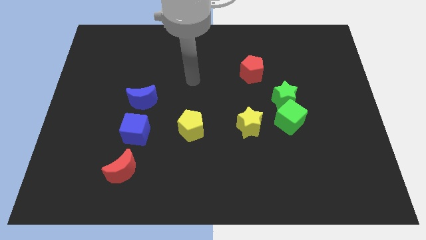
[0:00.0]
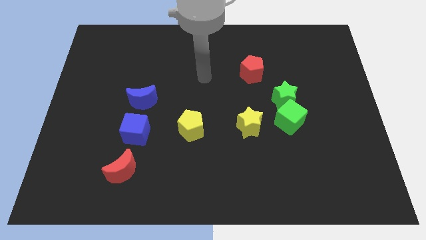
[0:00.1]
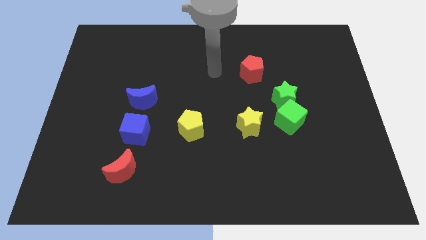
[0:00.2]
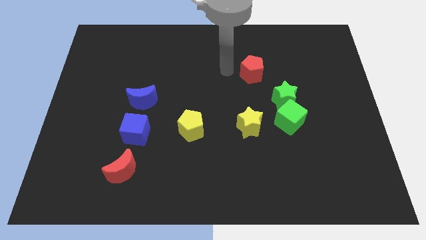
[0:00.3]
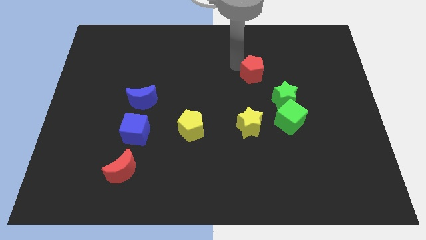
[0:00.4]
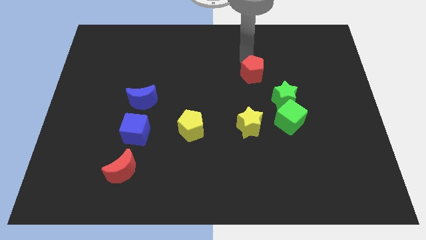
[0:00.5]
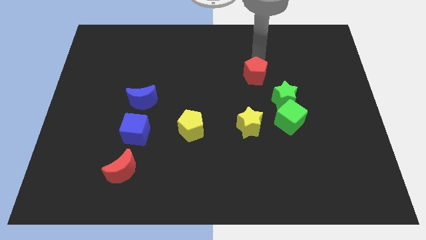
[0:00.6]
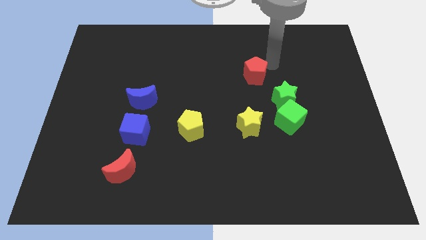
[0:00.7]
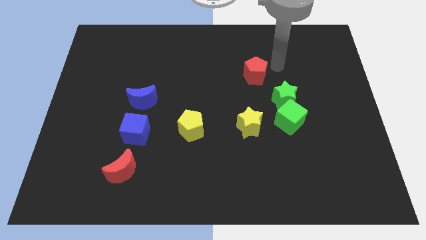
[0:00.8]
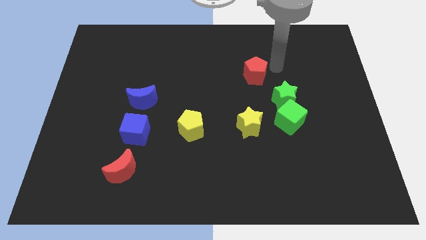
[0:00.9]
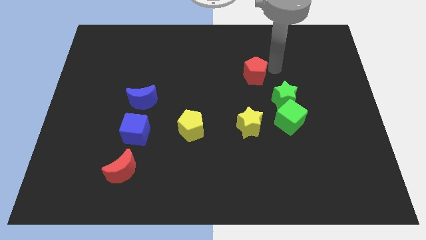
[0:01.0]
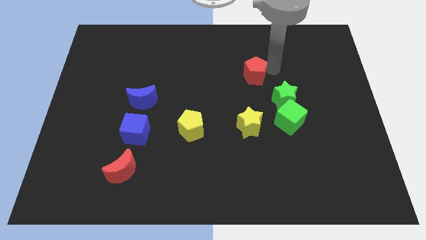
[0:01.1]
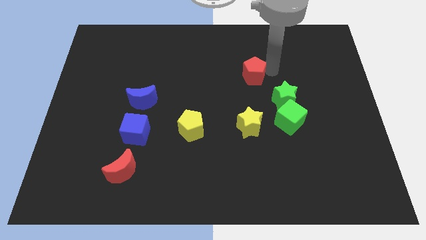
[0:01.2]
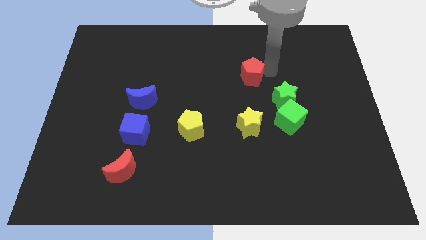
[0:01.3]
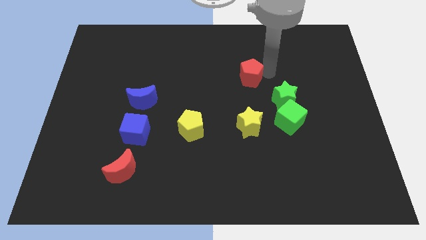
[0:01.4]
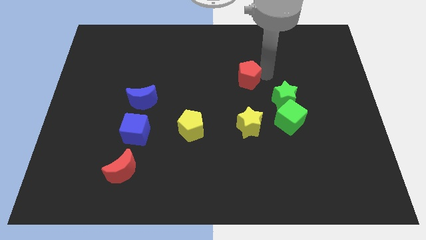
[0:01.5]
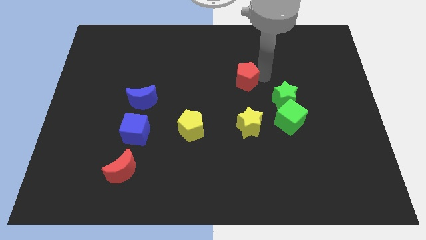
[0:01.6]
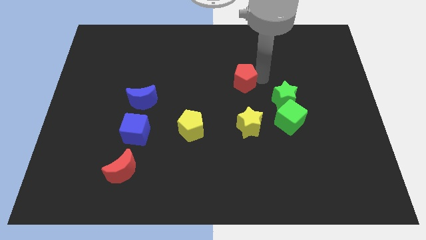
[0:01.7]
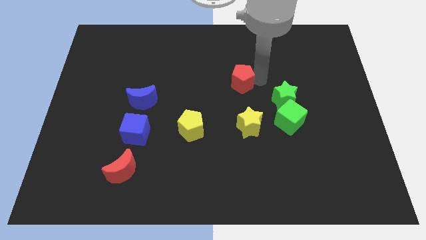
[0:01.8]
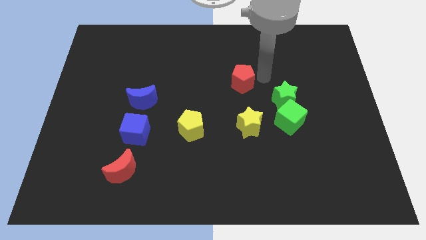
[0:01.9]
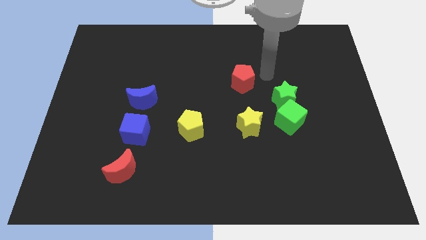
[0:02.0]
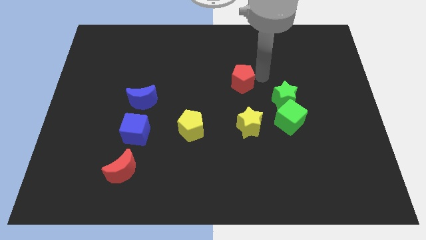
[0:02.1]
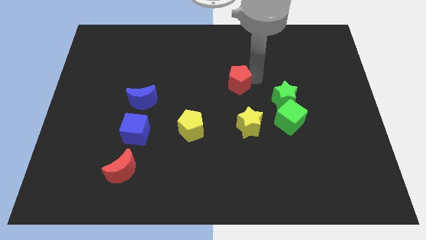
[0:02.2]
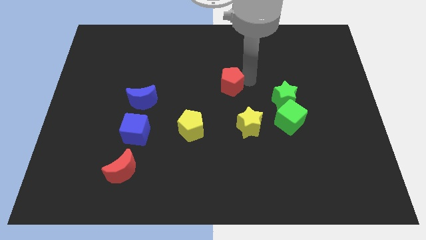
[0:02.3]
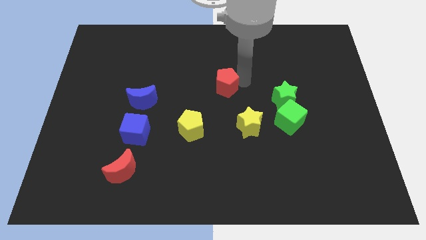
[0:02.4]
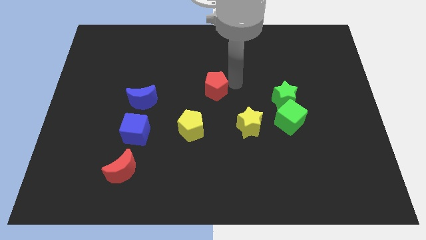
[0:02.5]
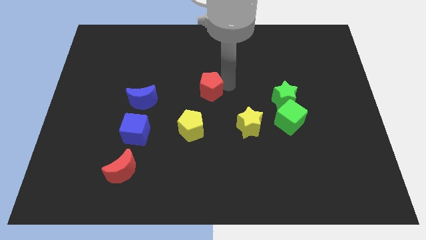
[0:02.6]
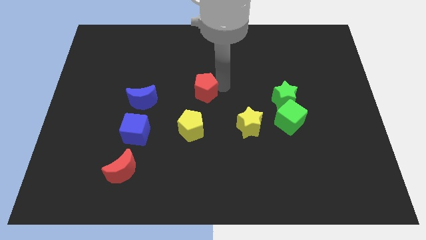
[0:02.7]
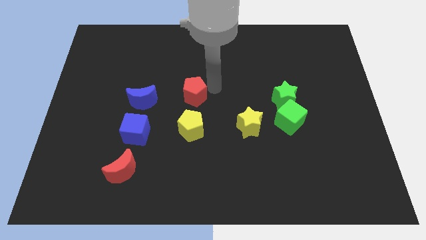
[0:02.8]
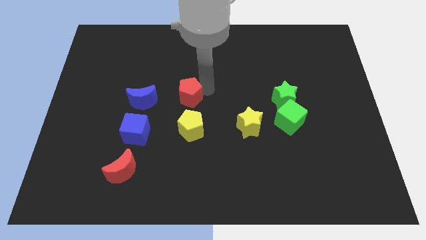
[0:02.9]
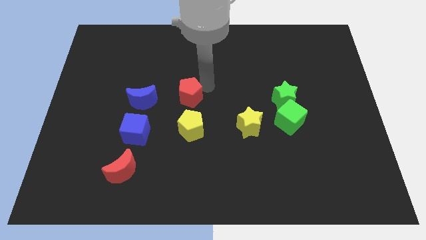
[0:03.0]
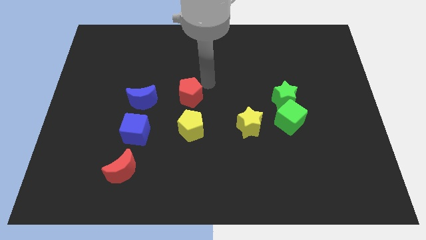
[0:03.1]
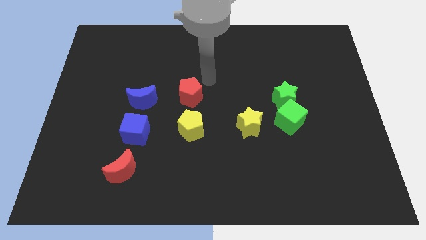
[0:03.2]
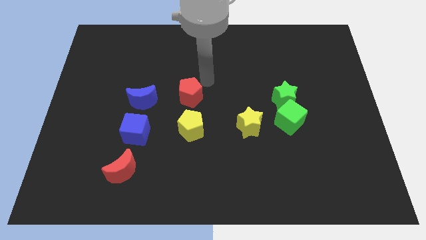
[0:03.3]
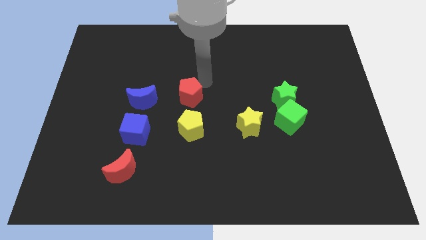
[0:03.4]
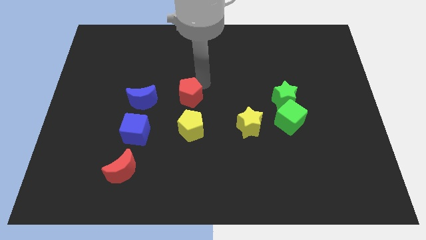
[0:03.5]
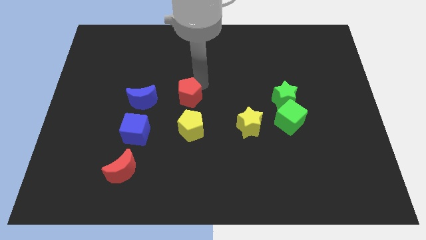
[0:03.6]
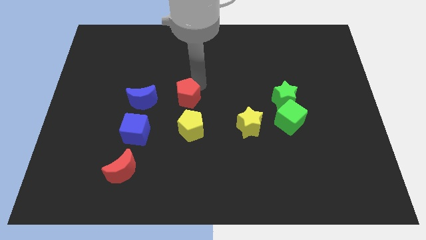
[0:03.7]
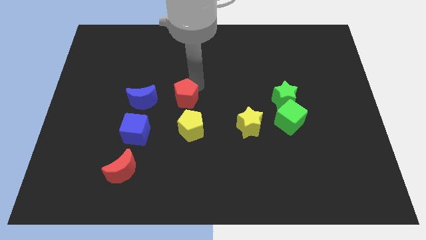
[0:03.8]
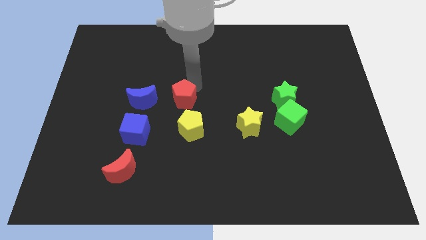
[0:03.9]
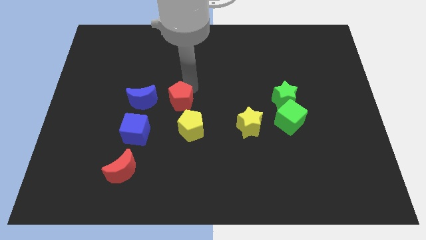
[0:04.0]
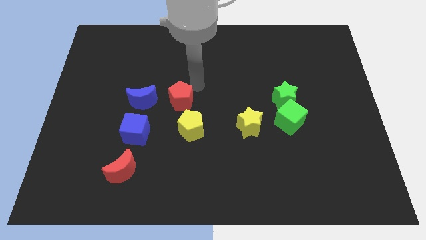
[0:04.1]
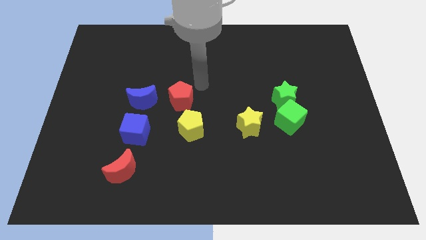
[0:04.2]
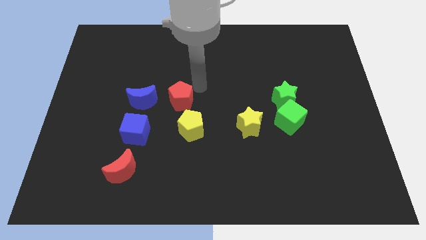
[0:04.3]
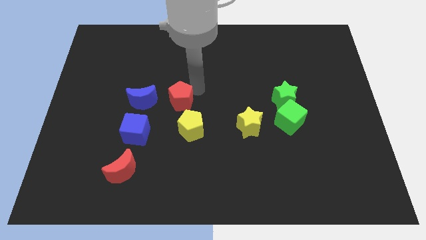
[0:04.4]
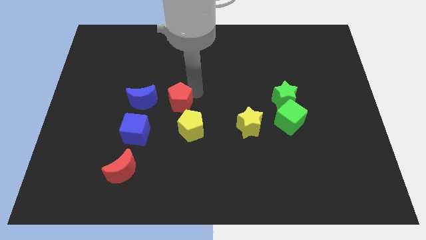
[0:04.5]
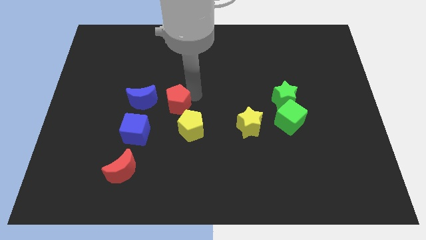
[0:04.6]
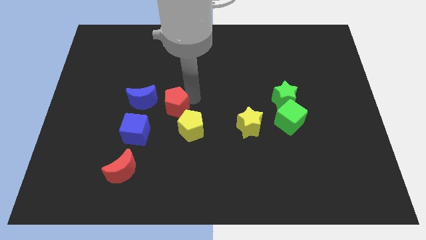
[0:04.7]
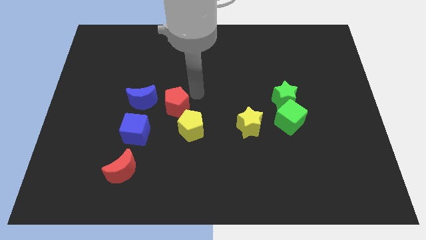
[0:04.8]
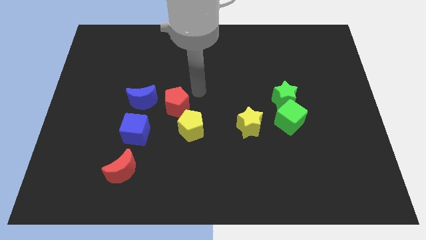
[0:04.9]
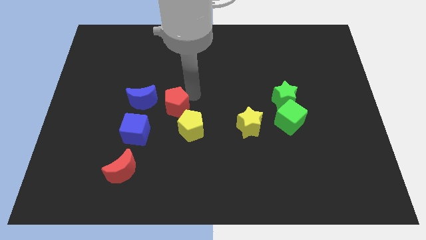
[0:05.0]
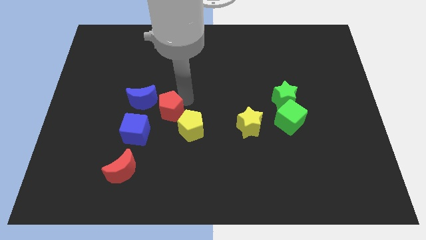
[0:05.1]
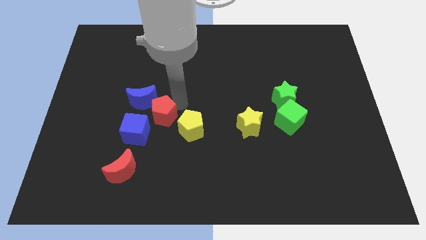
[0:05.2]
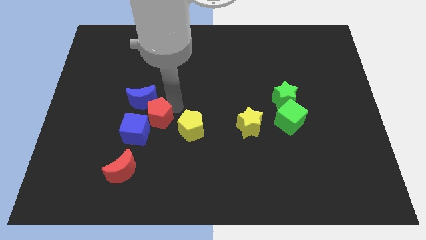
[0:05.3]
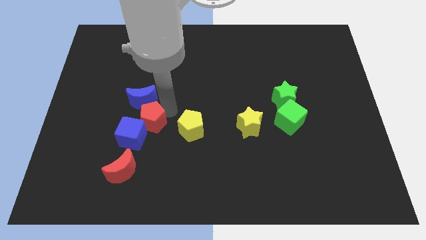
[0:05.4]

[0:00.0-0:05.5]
slide the red pentagon next to the blue cube

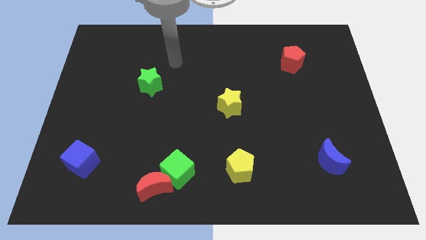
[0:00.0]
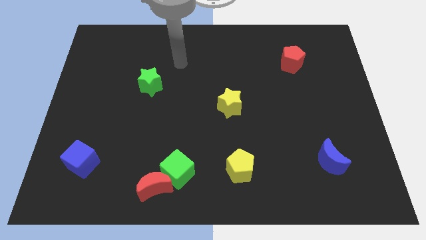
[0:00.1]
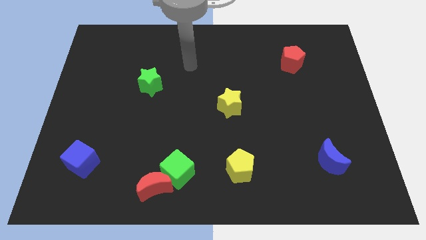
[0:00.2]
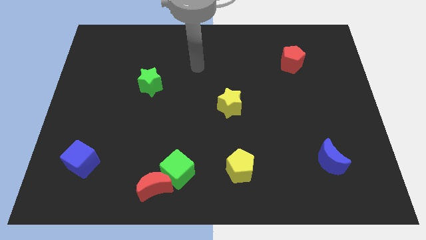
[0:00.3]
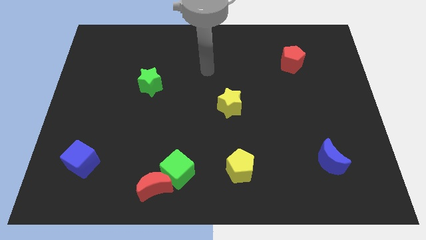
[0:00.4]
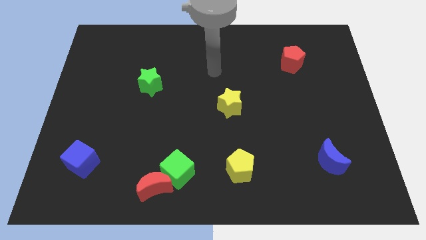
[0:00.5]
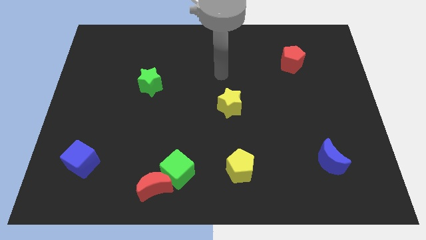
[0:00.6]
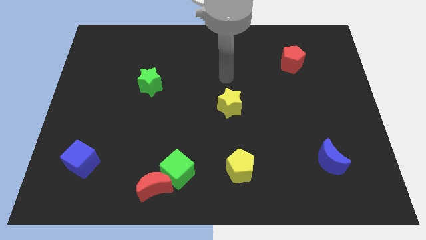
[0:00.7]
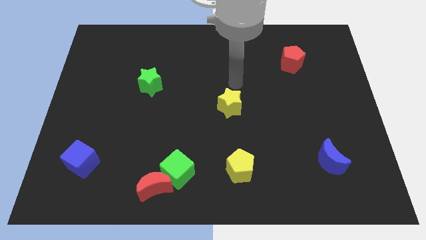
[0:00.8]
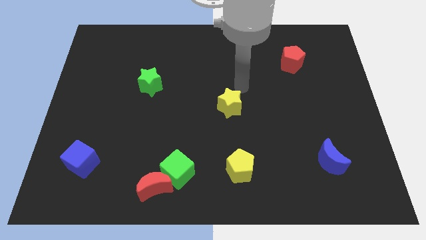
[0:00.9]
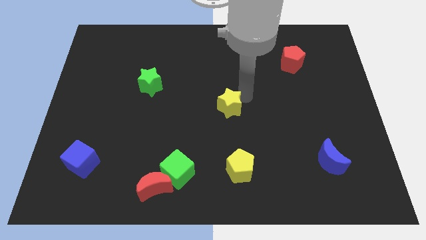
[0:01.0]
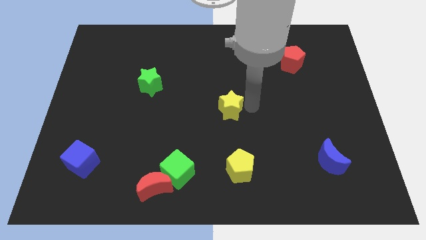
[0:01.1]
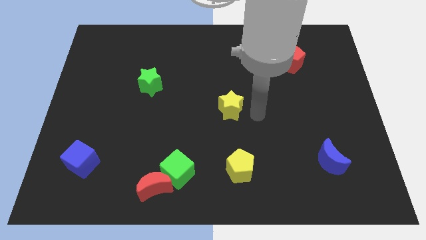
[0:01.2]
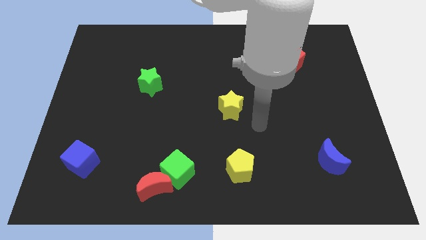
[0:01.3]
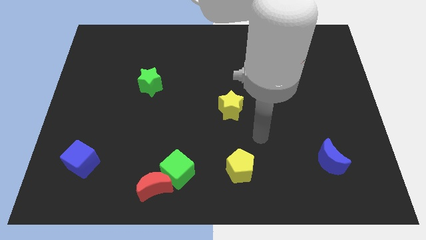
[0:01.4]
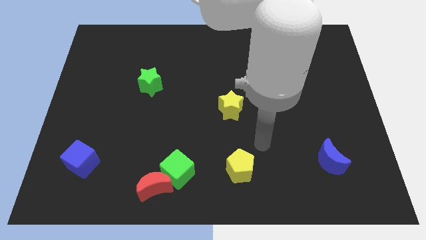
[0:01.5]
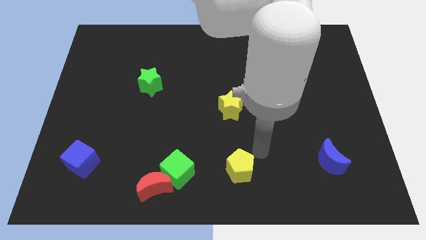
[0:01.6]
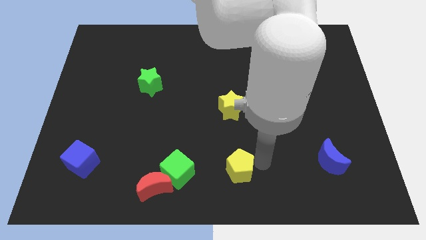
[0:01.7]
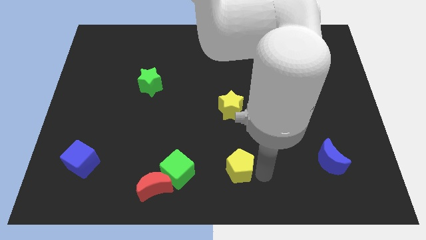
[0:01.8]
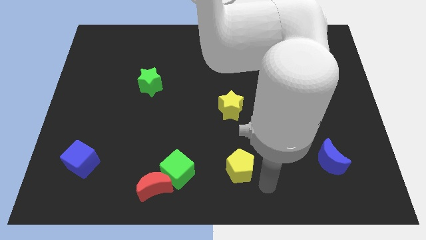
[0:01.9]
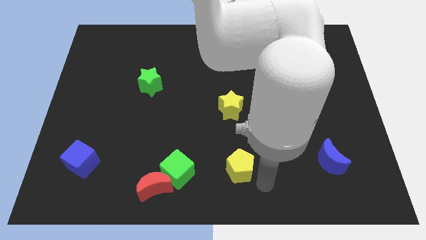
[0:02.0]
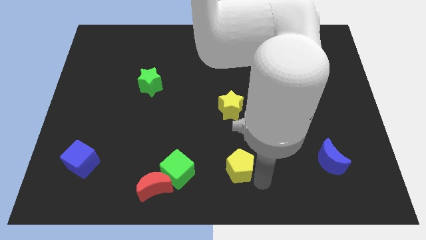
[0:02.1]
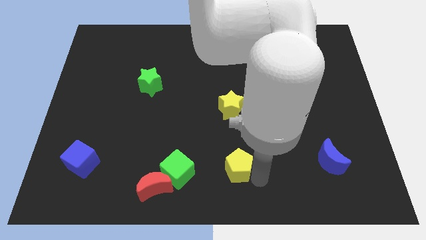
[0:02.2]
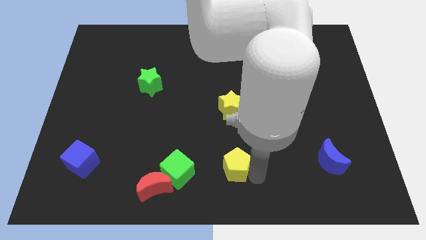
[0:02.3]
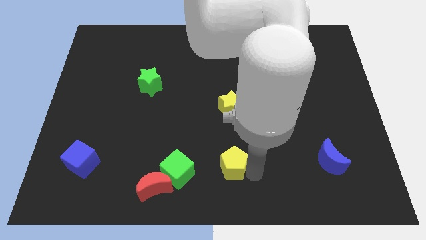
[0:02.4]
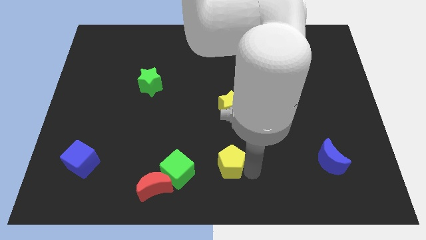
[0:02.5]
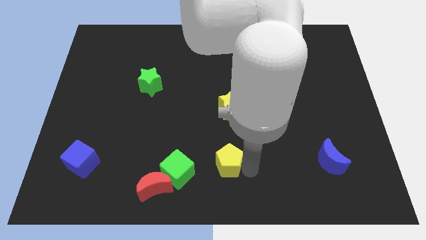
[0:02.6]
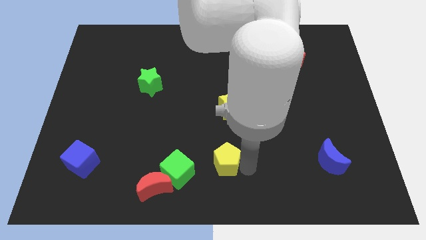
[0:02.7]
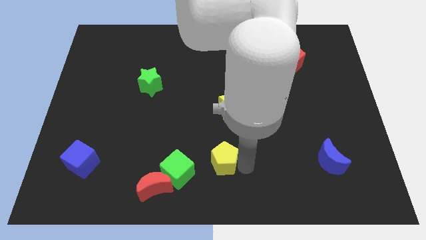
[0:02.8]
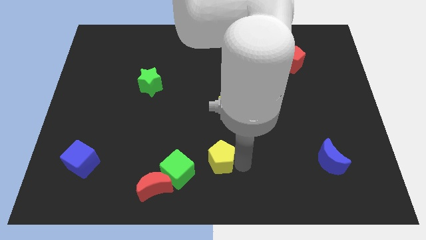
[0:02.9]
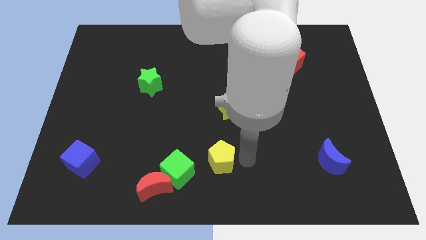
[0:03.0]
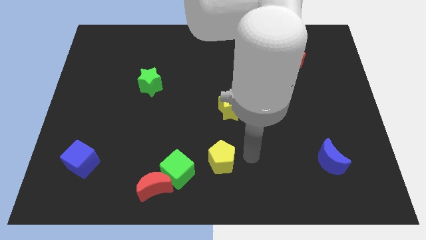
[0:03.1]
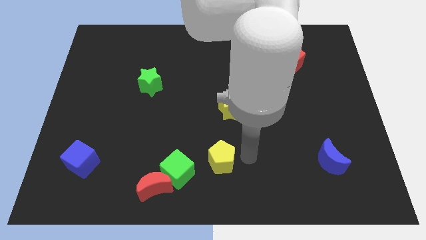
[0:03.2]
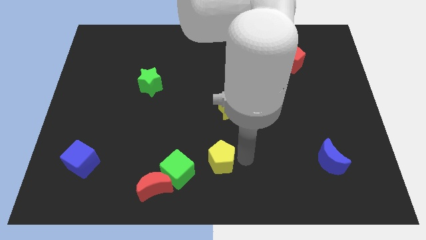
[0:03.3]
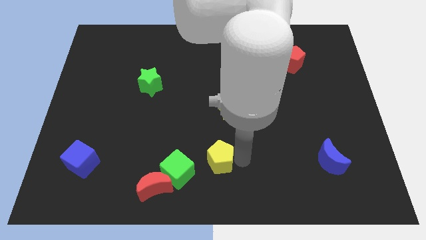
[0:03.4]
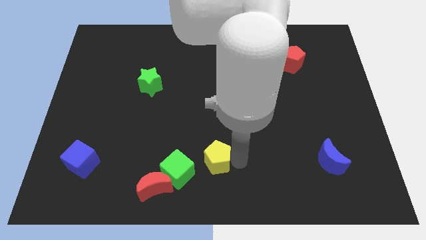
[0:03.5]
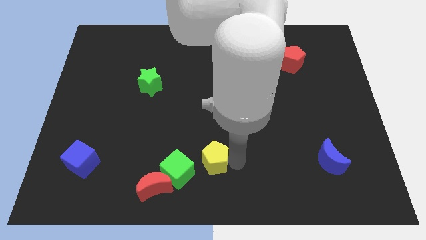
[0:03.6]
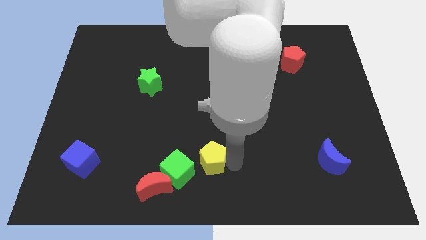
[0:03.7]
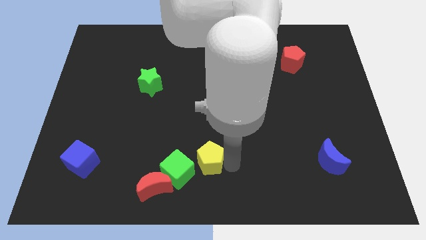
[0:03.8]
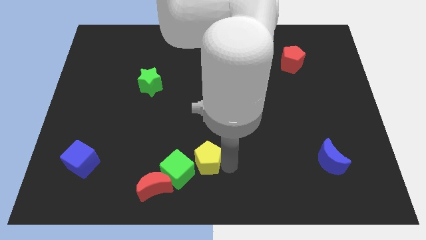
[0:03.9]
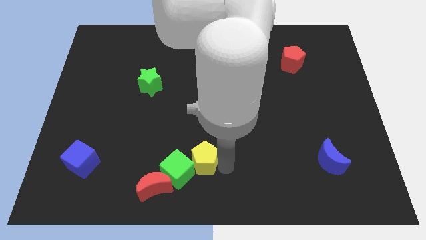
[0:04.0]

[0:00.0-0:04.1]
put the yellow pentagon close to the green cube
